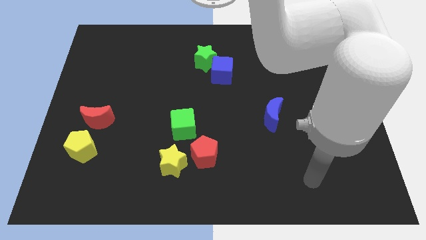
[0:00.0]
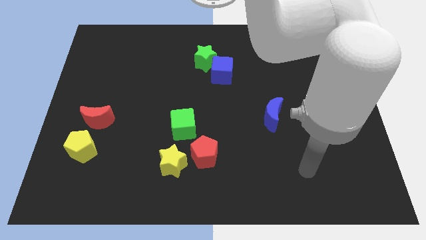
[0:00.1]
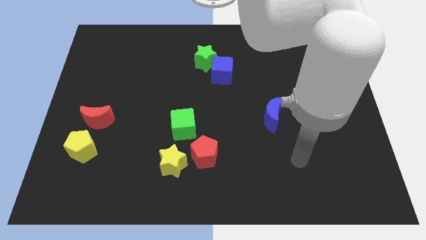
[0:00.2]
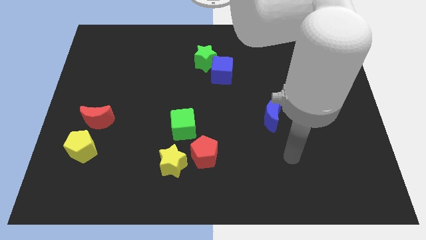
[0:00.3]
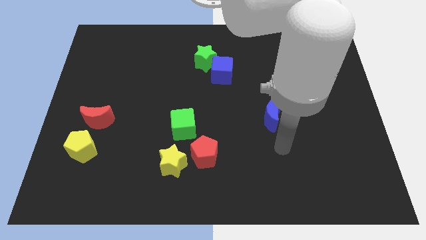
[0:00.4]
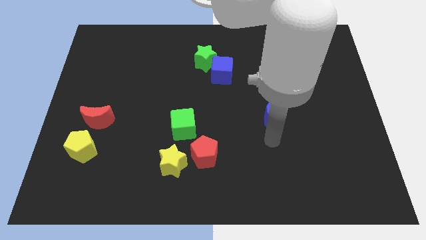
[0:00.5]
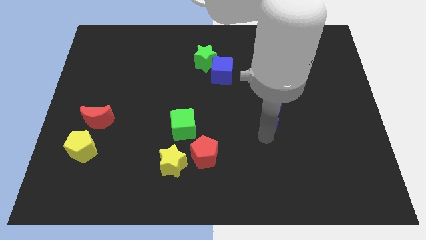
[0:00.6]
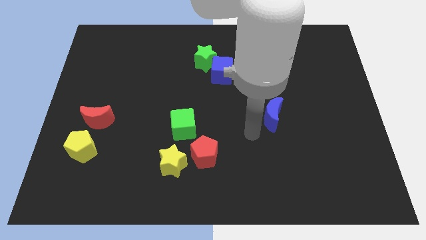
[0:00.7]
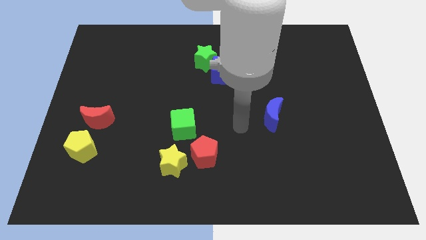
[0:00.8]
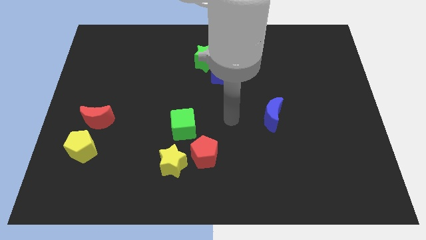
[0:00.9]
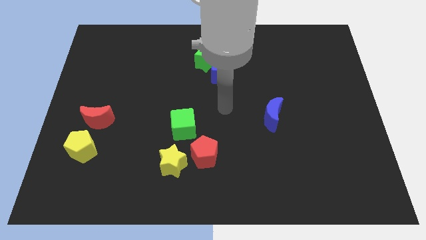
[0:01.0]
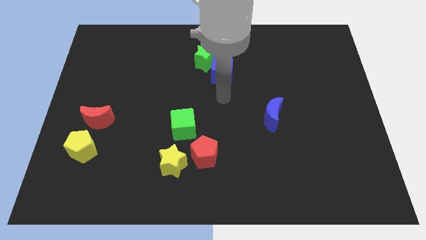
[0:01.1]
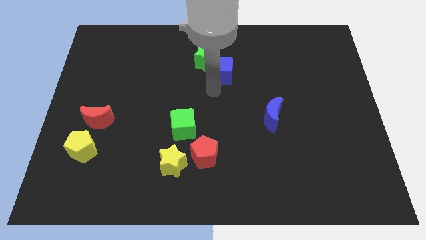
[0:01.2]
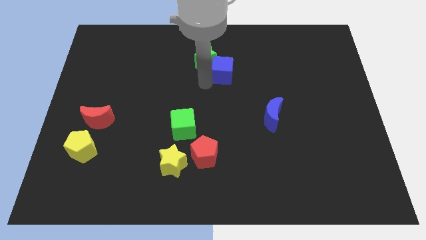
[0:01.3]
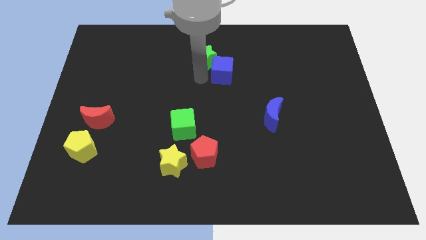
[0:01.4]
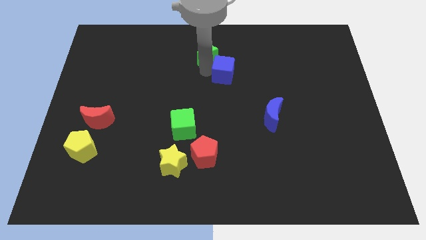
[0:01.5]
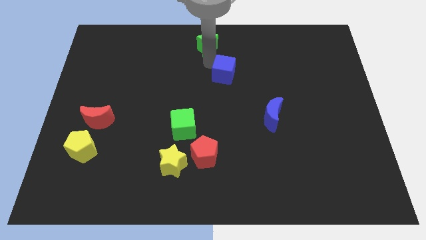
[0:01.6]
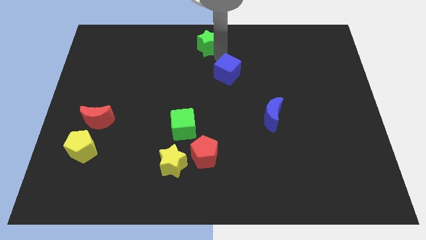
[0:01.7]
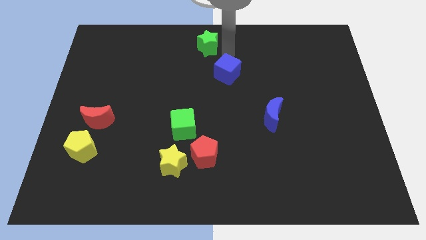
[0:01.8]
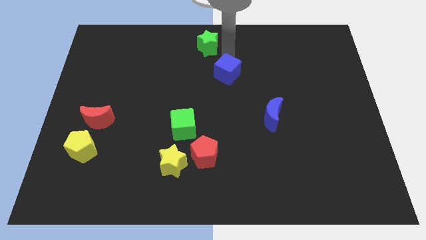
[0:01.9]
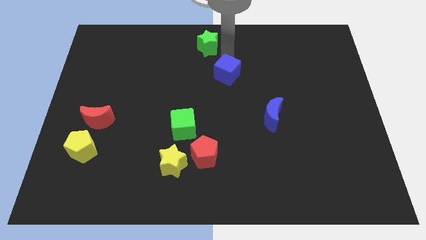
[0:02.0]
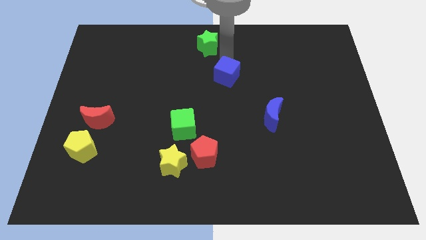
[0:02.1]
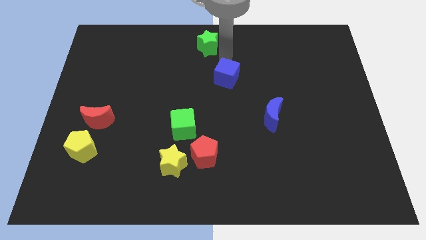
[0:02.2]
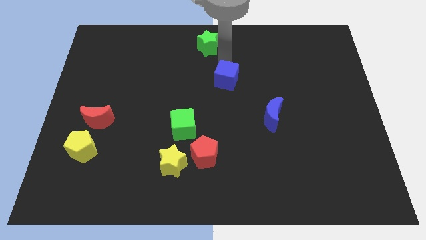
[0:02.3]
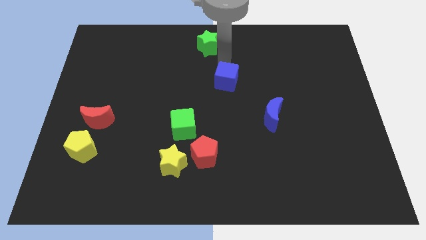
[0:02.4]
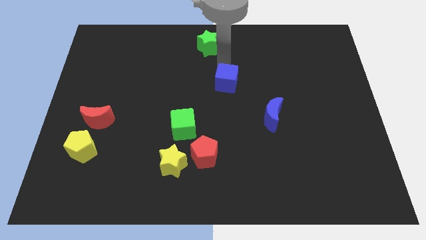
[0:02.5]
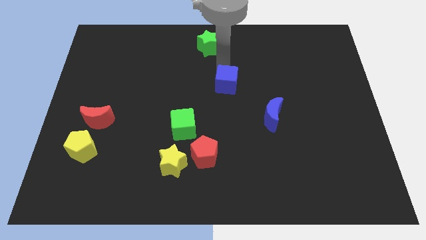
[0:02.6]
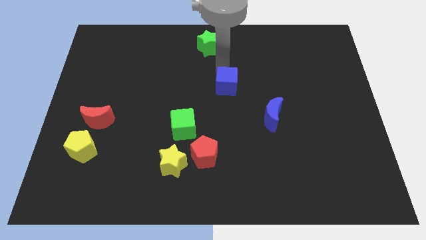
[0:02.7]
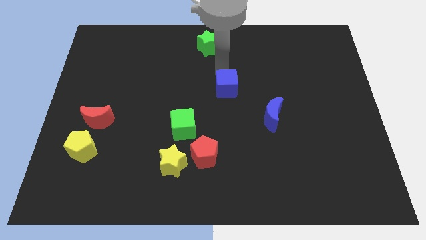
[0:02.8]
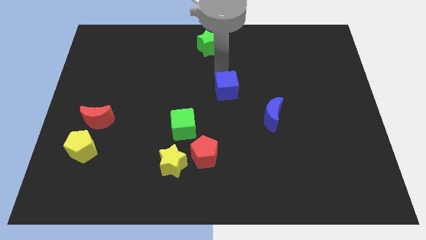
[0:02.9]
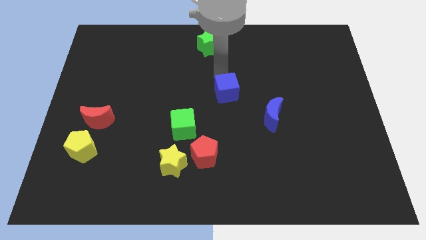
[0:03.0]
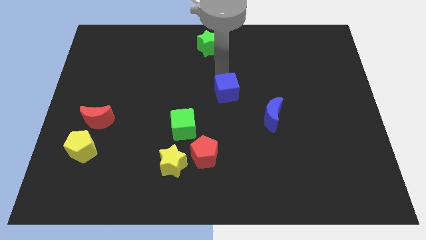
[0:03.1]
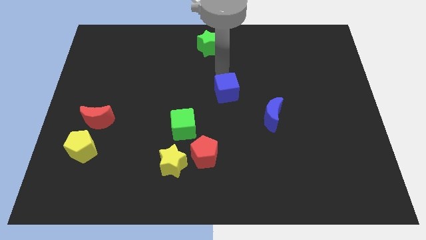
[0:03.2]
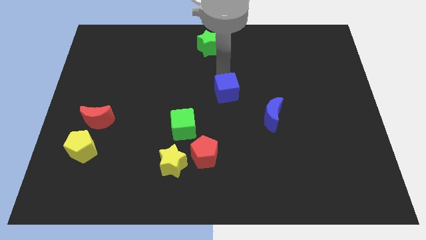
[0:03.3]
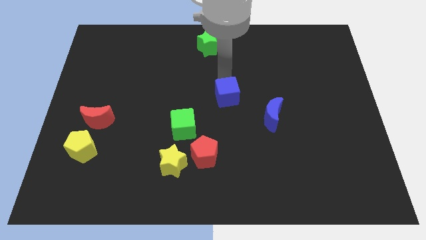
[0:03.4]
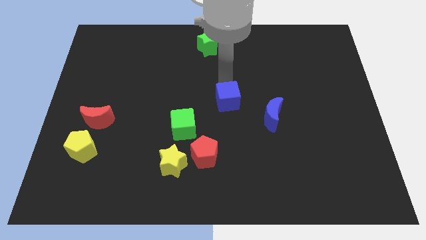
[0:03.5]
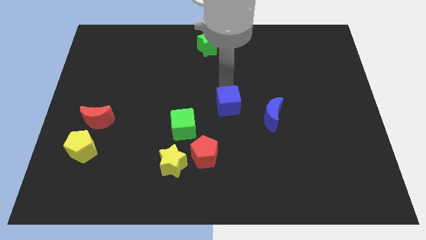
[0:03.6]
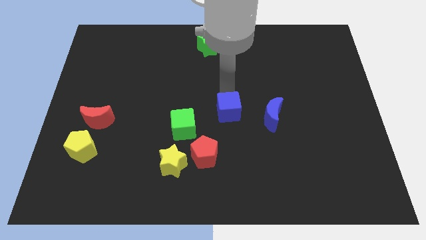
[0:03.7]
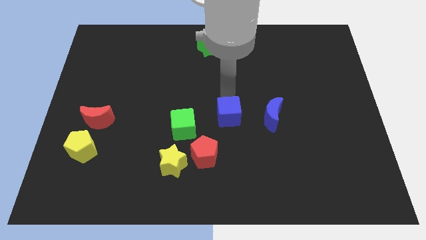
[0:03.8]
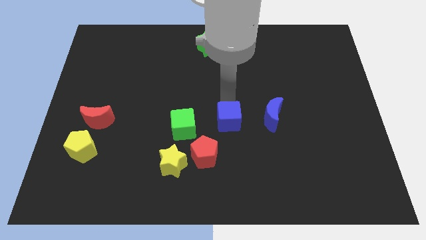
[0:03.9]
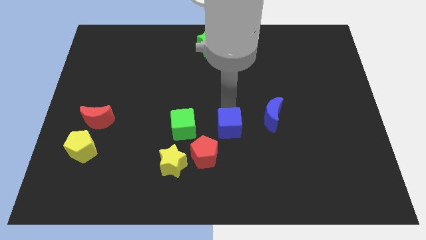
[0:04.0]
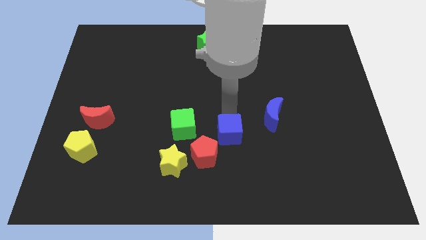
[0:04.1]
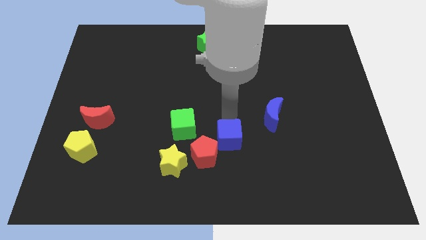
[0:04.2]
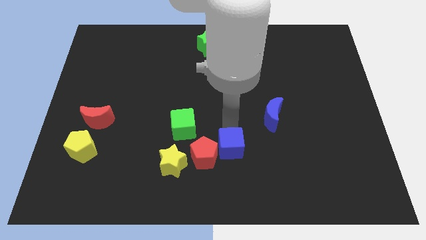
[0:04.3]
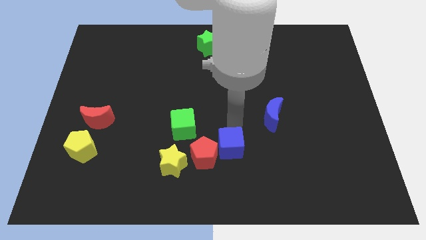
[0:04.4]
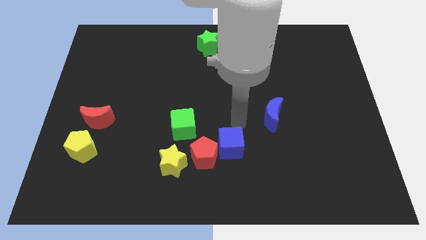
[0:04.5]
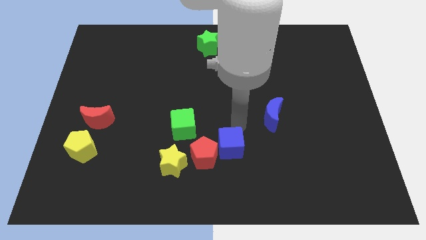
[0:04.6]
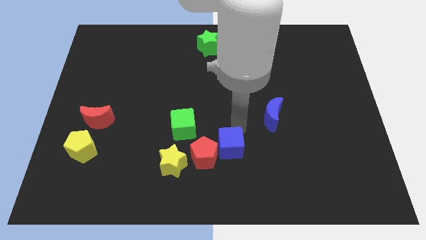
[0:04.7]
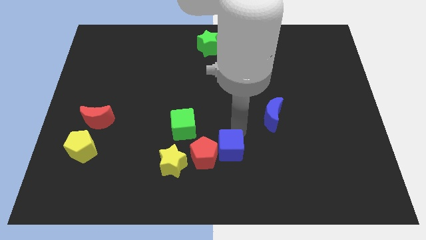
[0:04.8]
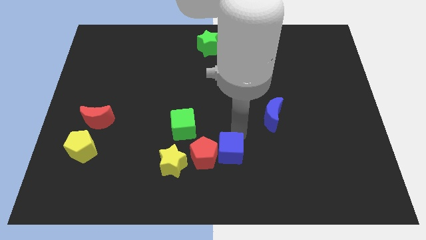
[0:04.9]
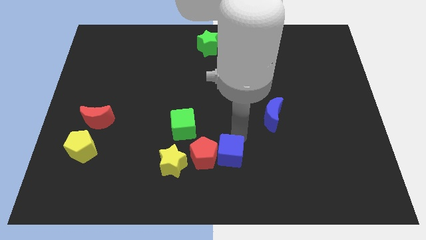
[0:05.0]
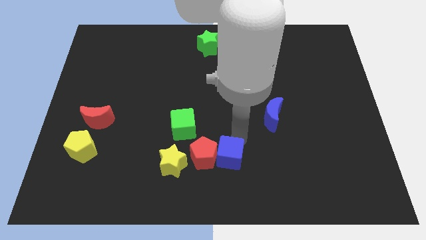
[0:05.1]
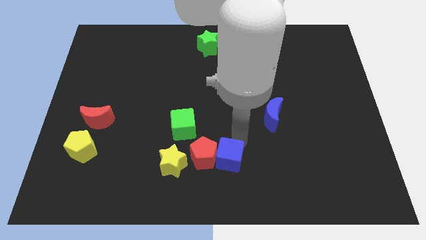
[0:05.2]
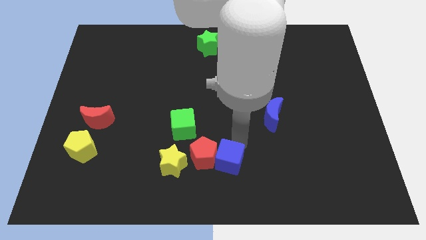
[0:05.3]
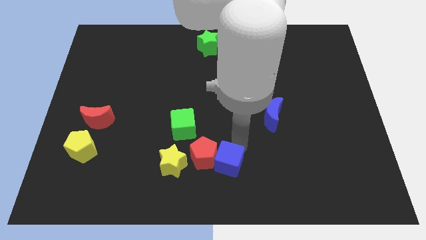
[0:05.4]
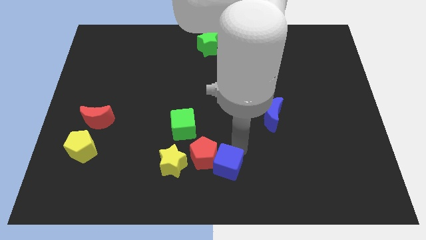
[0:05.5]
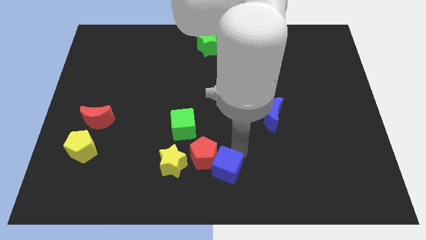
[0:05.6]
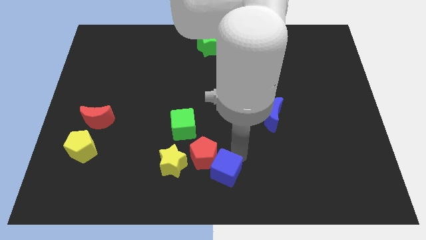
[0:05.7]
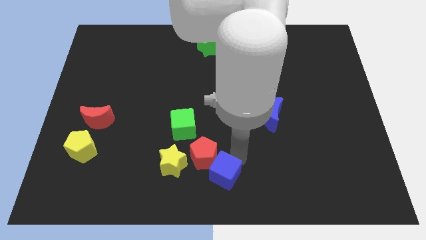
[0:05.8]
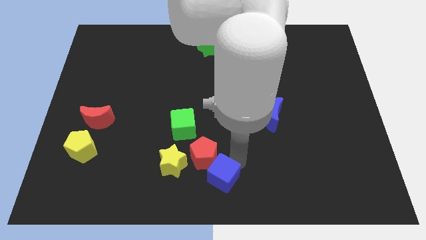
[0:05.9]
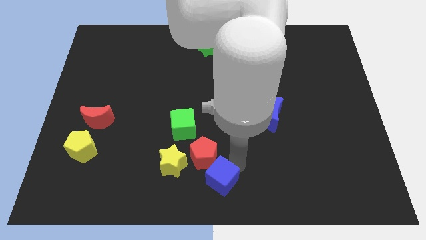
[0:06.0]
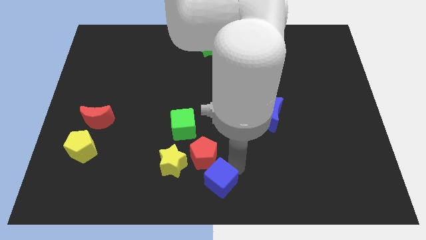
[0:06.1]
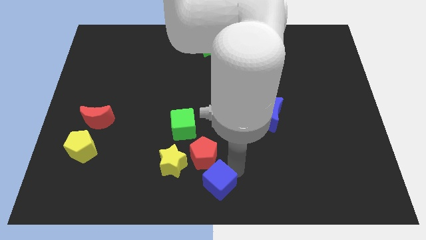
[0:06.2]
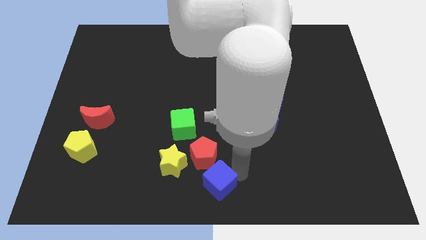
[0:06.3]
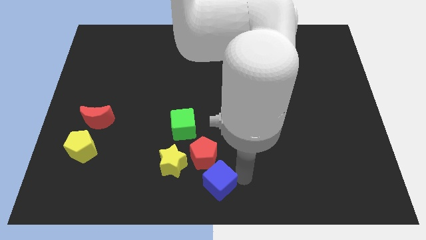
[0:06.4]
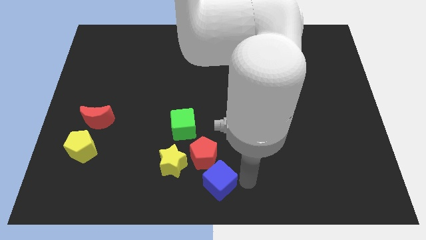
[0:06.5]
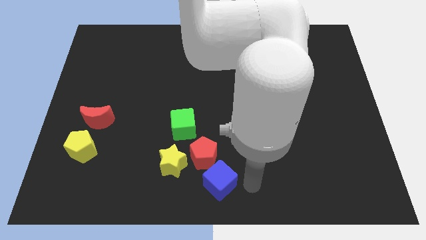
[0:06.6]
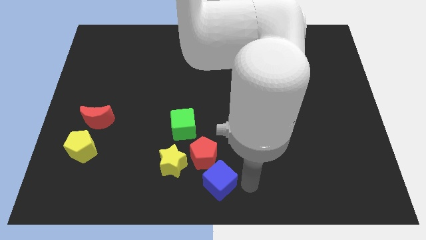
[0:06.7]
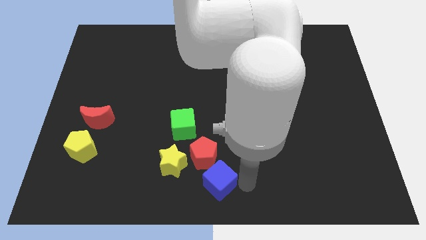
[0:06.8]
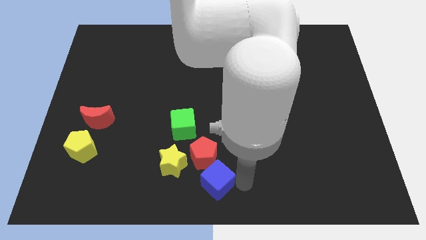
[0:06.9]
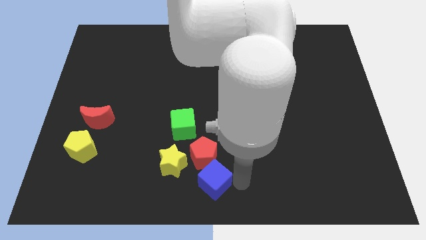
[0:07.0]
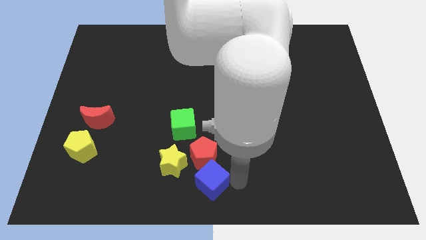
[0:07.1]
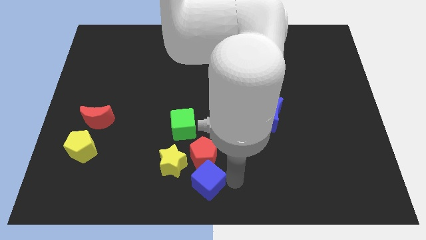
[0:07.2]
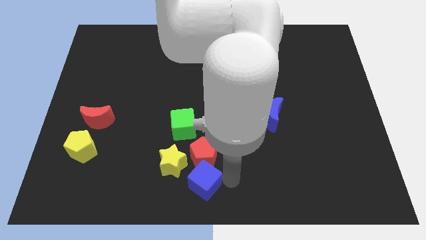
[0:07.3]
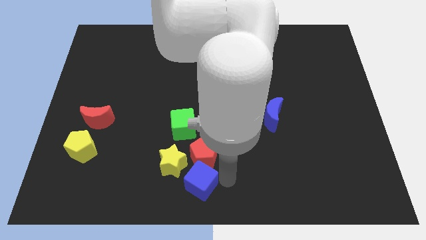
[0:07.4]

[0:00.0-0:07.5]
push the blue cube to the bottom of the green cube
